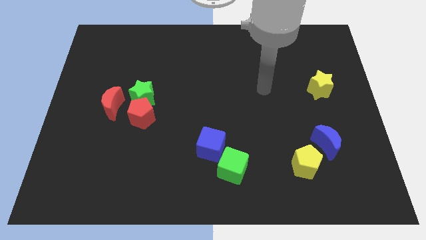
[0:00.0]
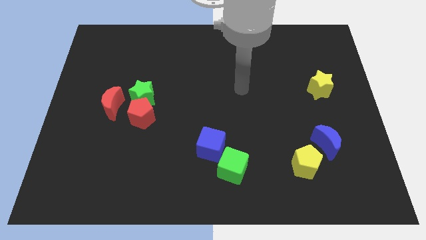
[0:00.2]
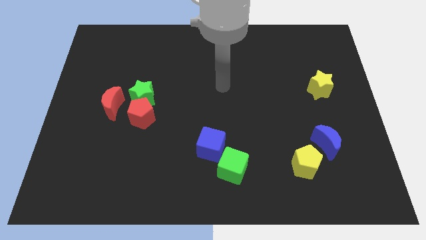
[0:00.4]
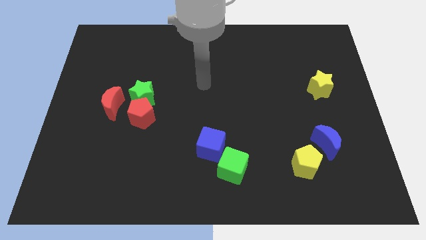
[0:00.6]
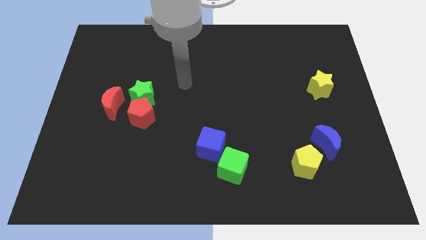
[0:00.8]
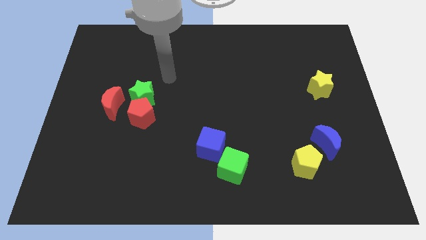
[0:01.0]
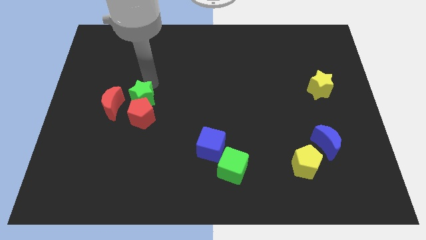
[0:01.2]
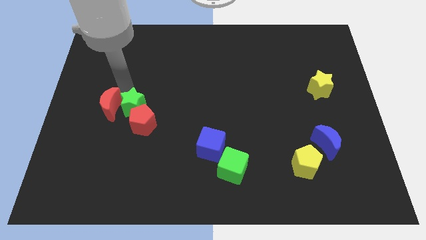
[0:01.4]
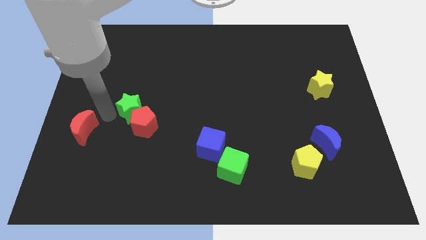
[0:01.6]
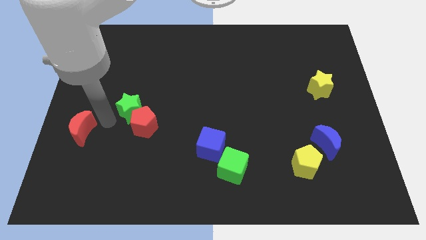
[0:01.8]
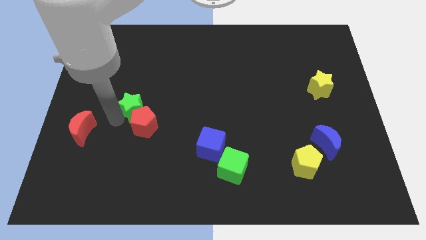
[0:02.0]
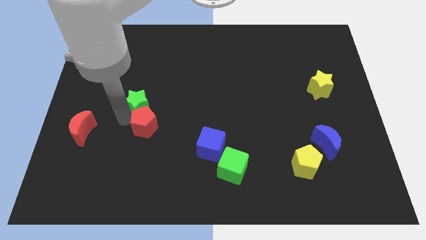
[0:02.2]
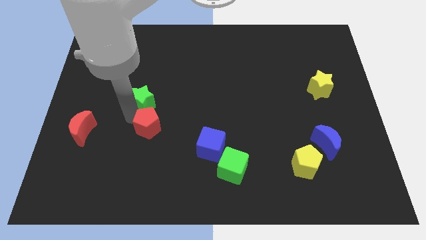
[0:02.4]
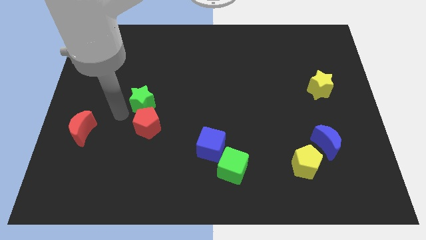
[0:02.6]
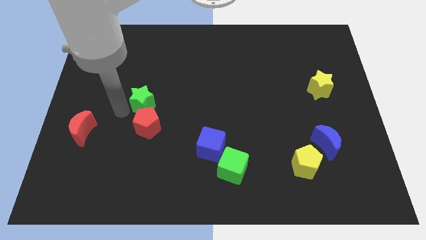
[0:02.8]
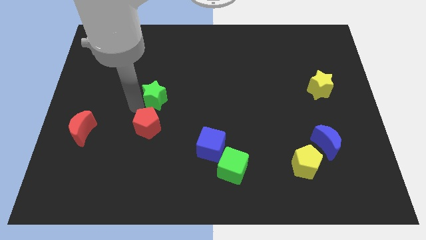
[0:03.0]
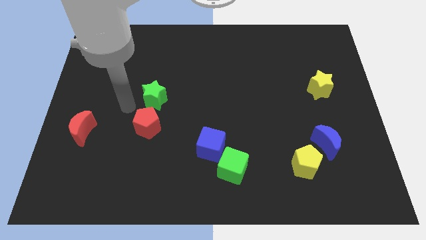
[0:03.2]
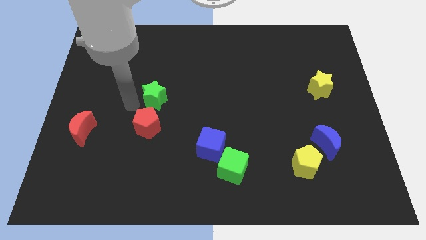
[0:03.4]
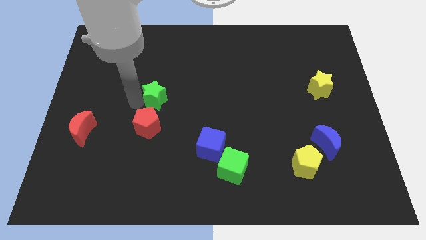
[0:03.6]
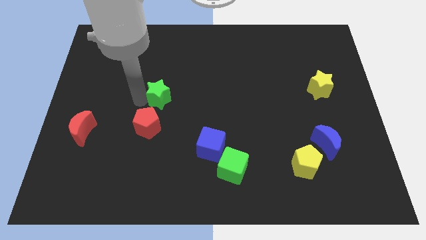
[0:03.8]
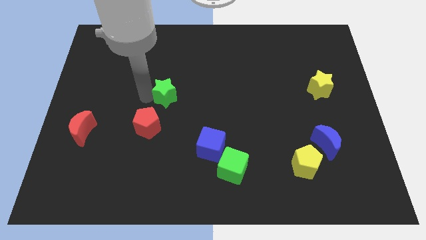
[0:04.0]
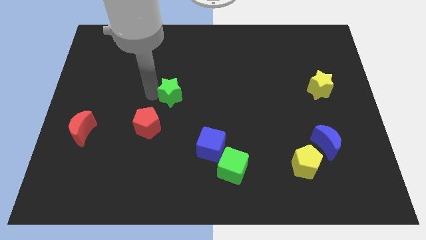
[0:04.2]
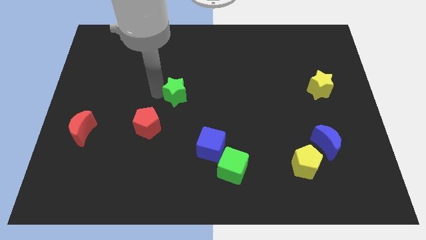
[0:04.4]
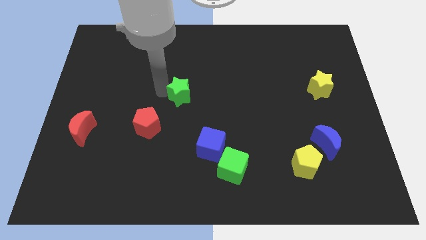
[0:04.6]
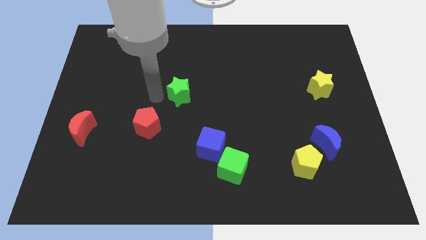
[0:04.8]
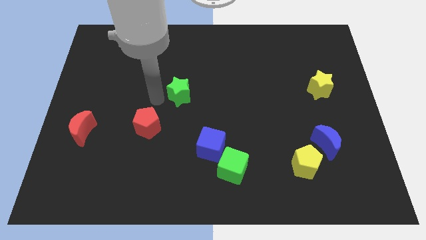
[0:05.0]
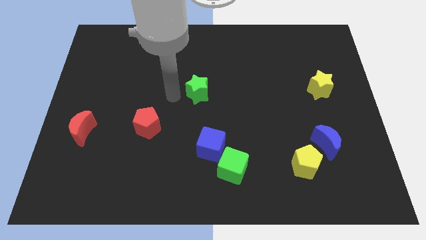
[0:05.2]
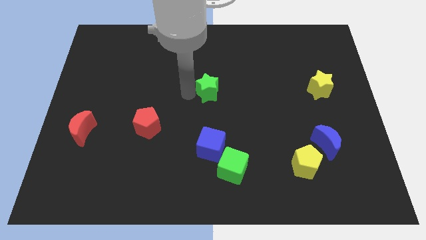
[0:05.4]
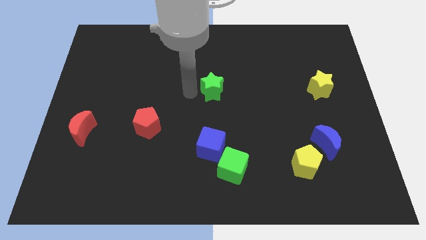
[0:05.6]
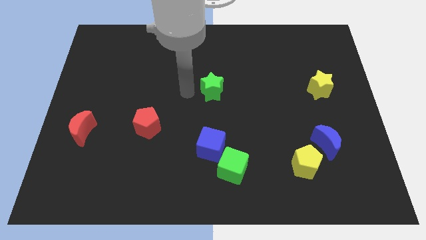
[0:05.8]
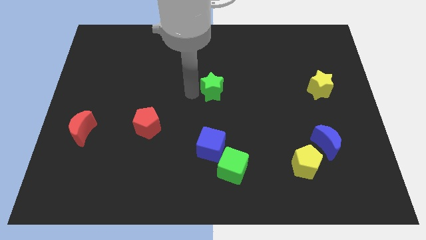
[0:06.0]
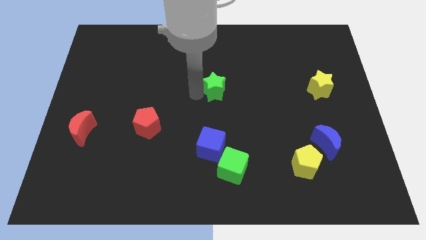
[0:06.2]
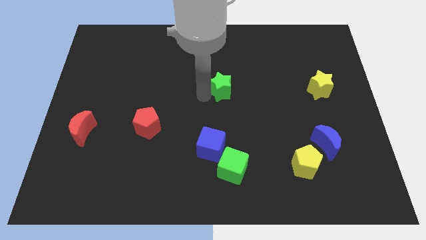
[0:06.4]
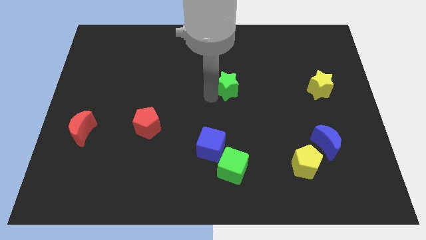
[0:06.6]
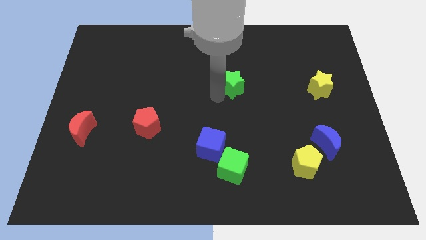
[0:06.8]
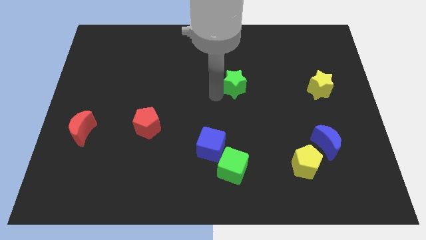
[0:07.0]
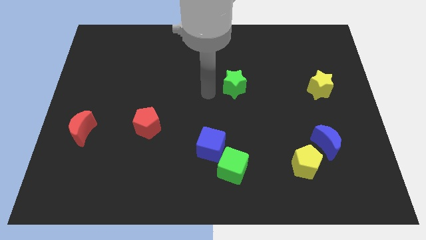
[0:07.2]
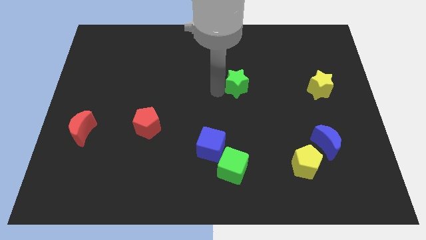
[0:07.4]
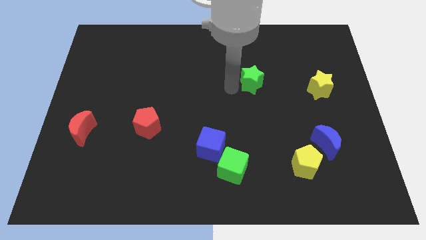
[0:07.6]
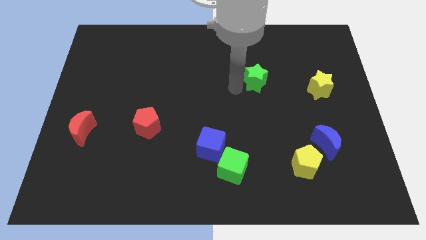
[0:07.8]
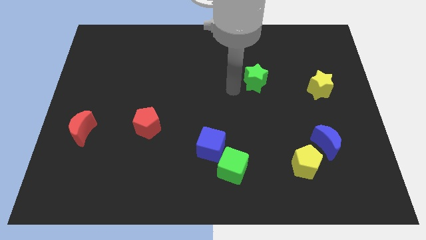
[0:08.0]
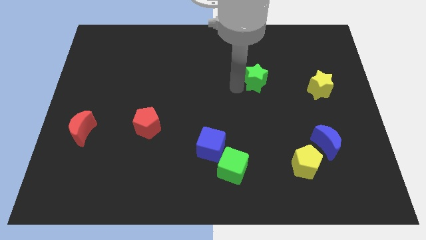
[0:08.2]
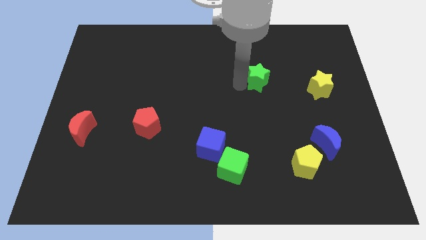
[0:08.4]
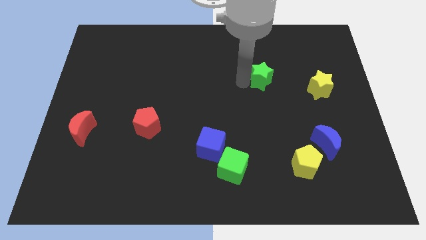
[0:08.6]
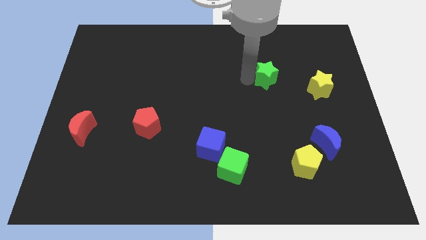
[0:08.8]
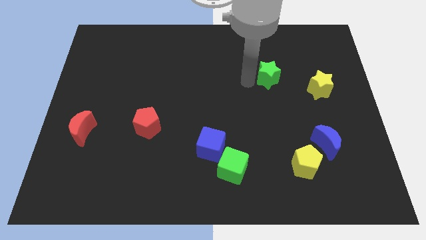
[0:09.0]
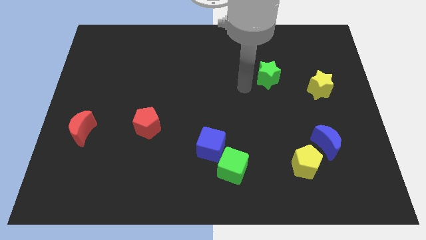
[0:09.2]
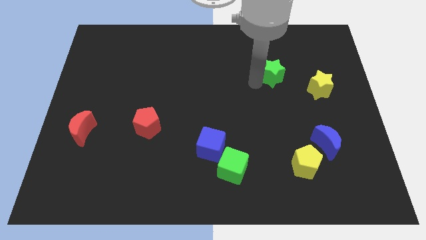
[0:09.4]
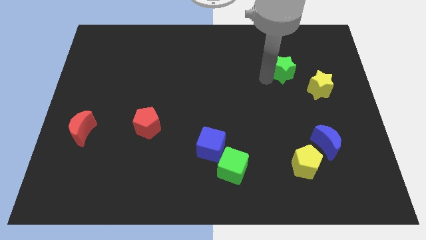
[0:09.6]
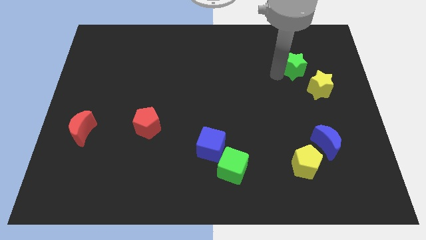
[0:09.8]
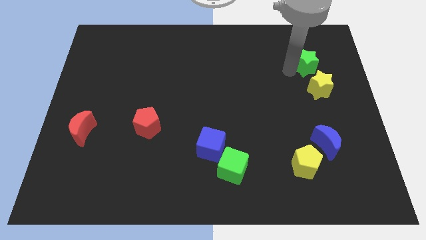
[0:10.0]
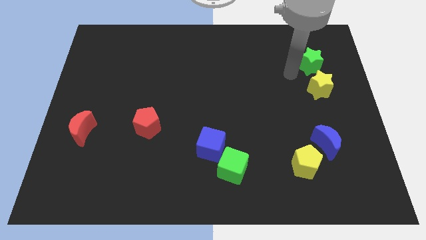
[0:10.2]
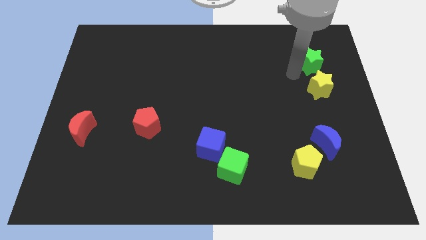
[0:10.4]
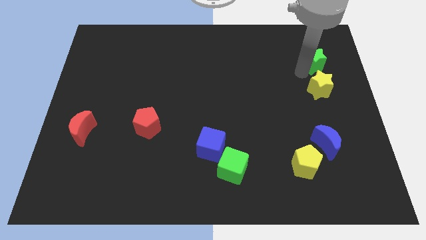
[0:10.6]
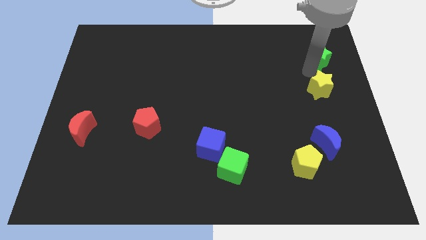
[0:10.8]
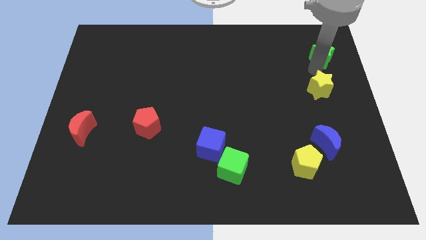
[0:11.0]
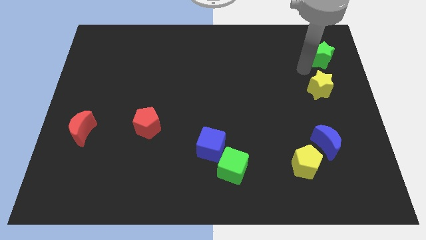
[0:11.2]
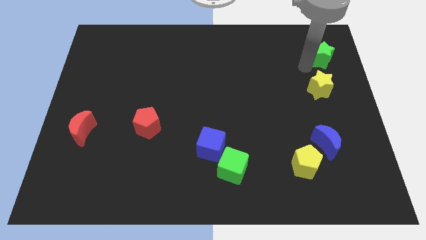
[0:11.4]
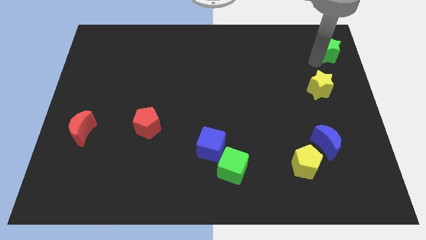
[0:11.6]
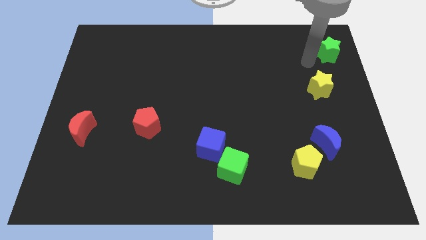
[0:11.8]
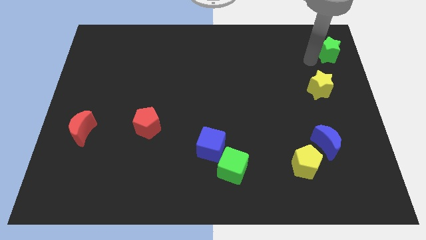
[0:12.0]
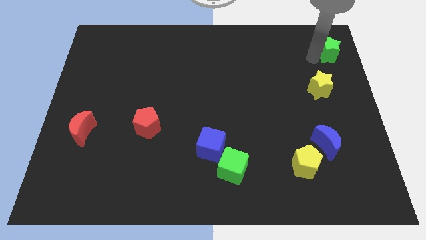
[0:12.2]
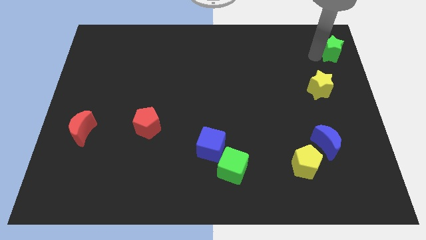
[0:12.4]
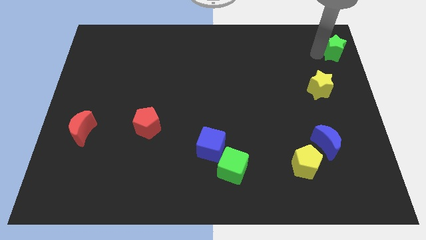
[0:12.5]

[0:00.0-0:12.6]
put the green star to the upper right corner

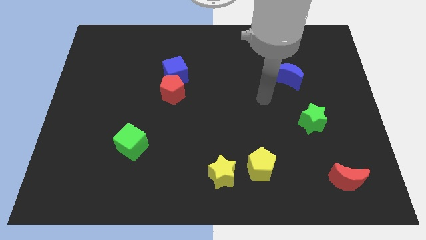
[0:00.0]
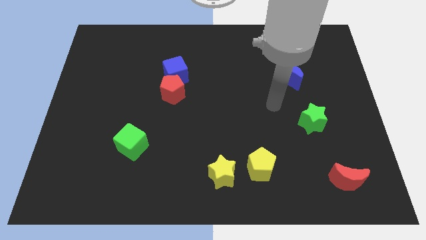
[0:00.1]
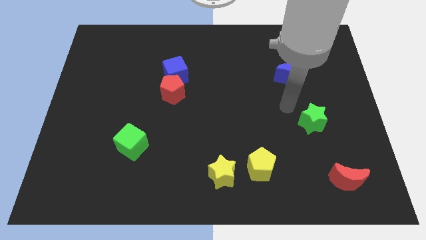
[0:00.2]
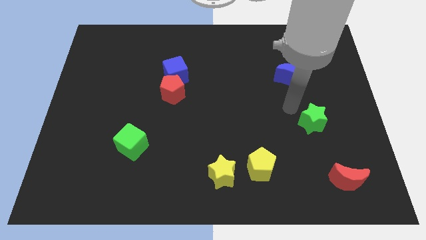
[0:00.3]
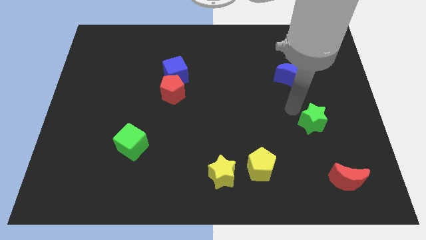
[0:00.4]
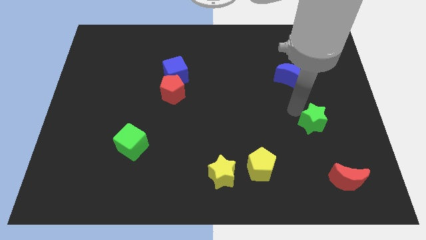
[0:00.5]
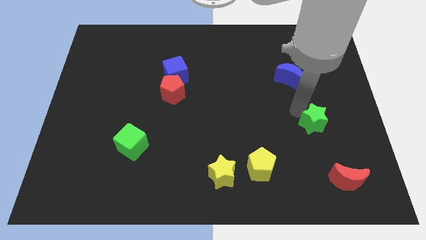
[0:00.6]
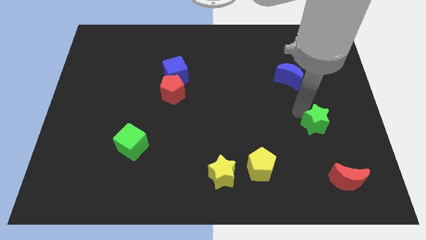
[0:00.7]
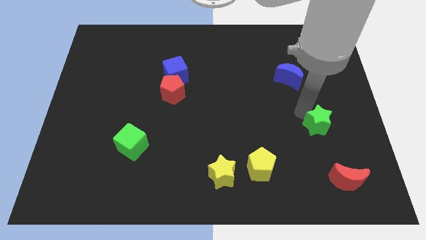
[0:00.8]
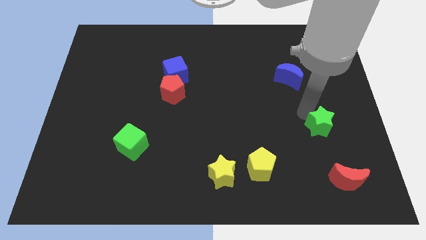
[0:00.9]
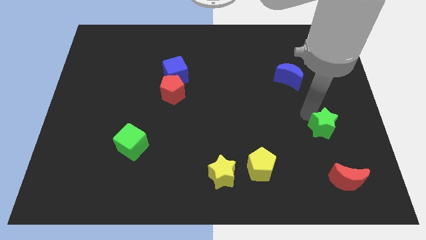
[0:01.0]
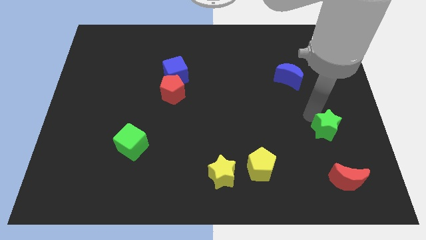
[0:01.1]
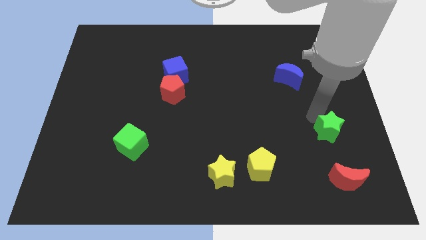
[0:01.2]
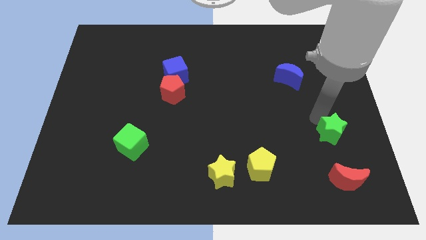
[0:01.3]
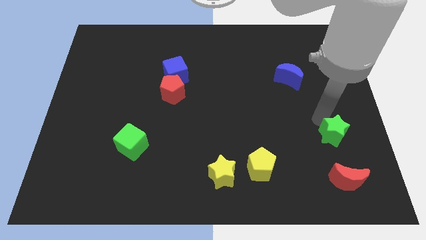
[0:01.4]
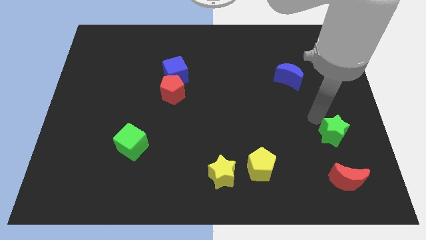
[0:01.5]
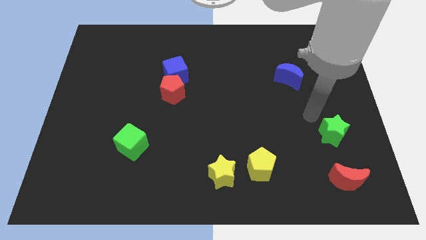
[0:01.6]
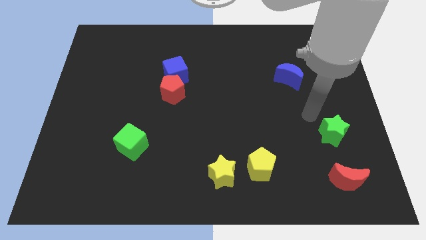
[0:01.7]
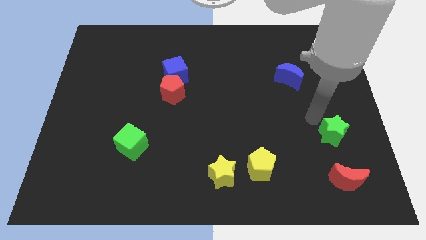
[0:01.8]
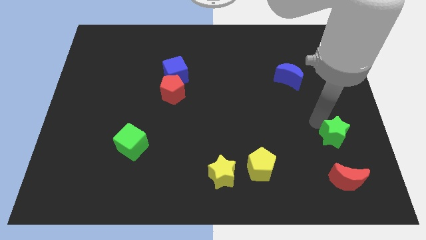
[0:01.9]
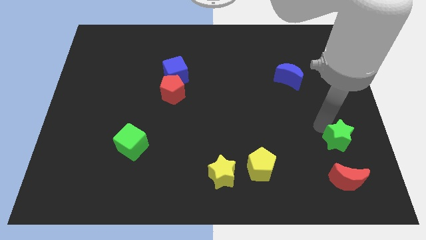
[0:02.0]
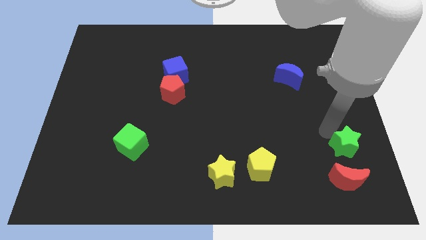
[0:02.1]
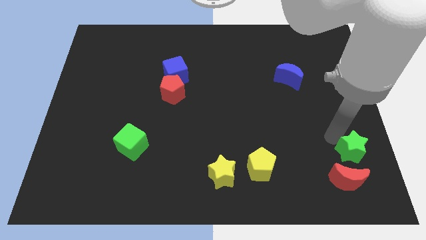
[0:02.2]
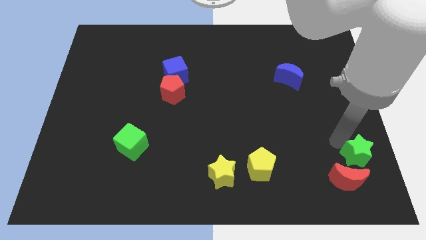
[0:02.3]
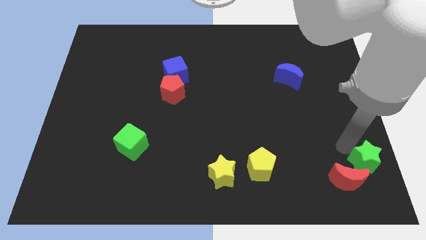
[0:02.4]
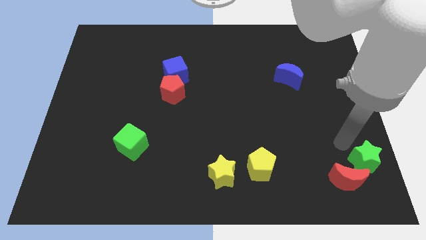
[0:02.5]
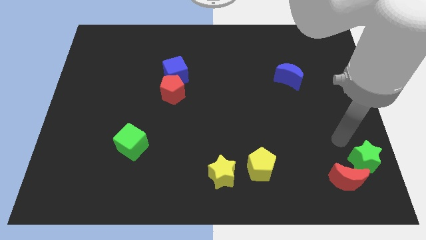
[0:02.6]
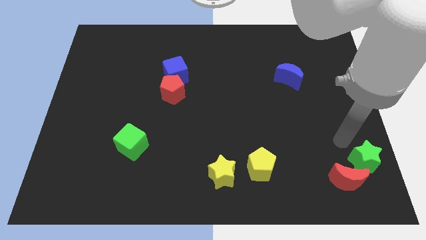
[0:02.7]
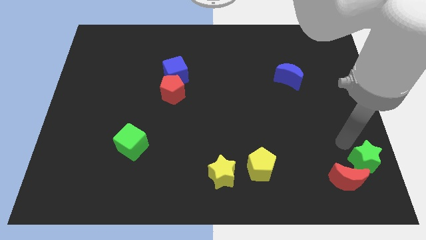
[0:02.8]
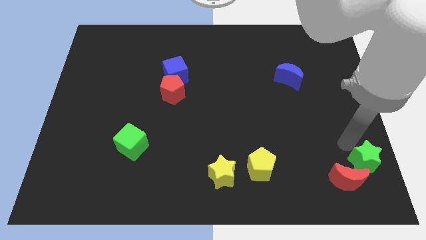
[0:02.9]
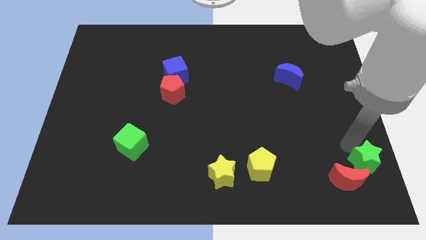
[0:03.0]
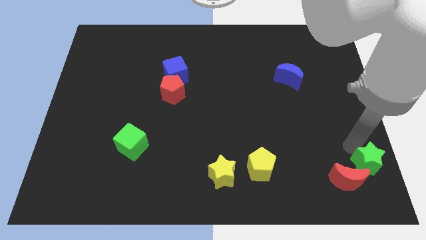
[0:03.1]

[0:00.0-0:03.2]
push the green star to the bottom right
